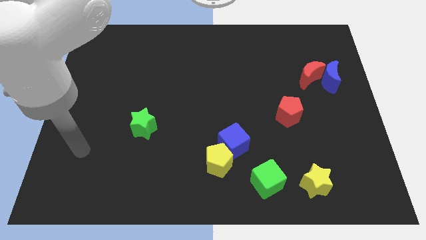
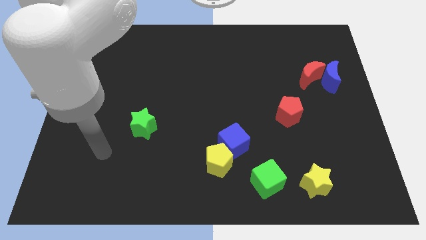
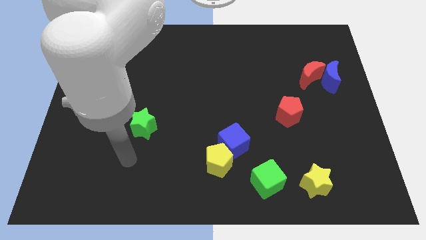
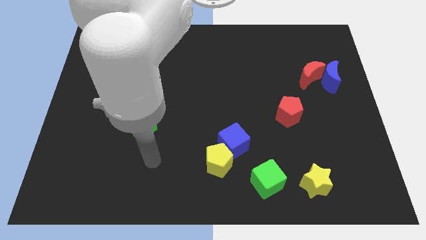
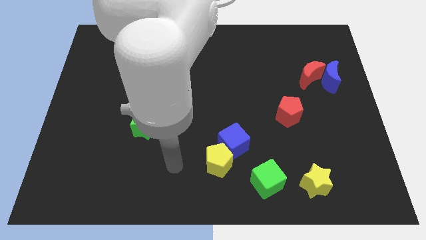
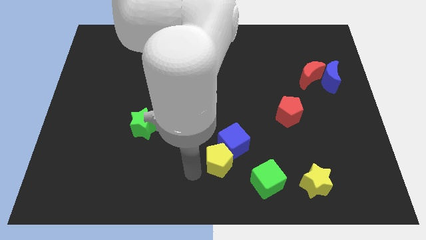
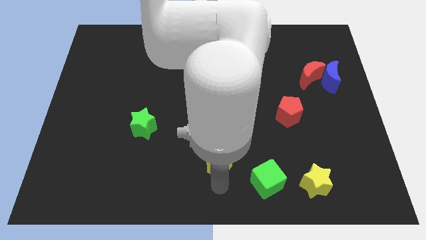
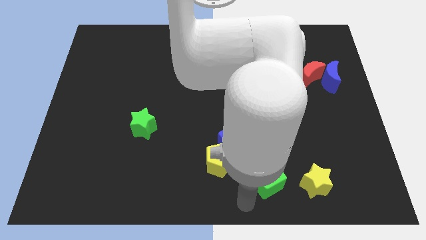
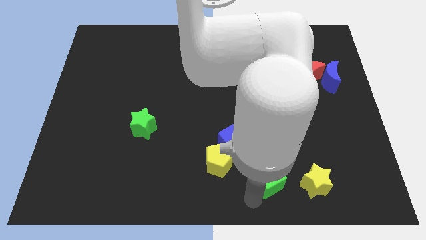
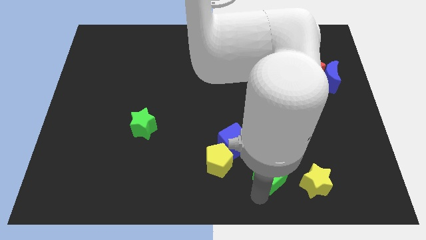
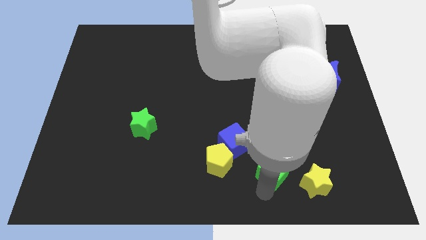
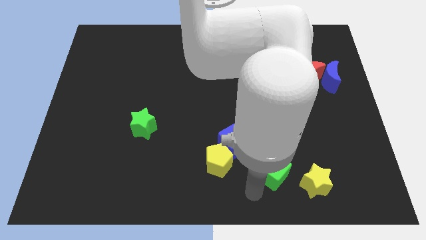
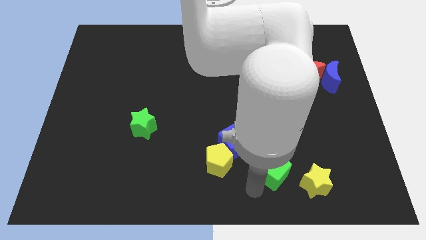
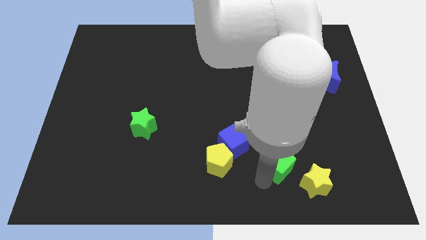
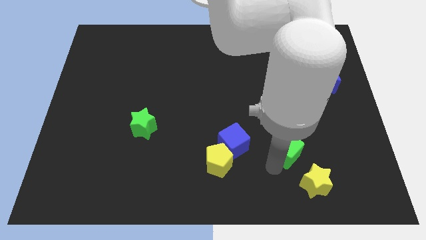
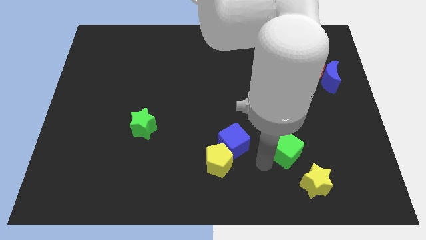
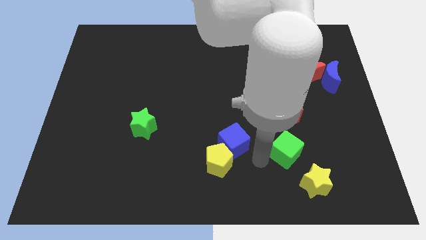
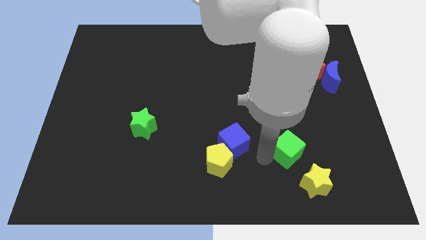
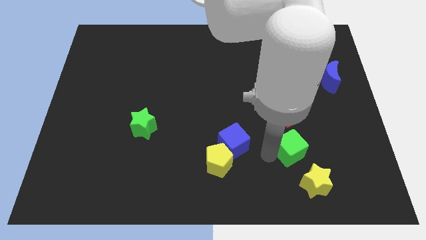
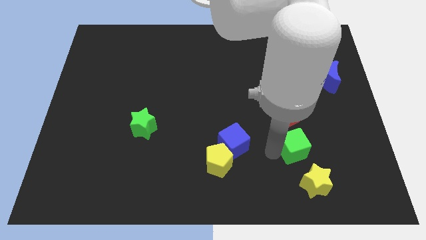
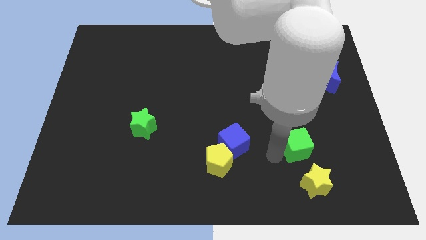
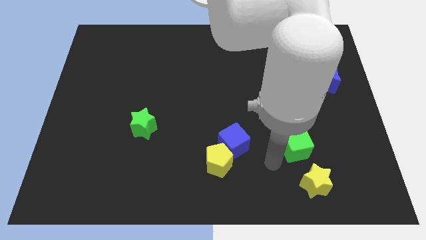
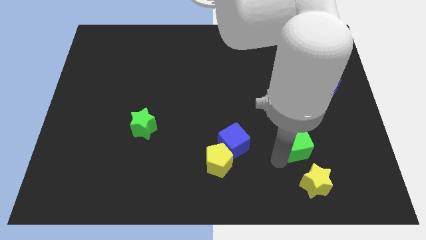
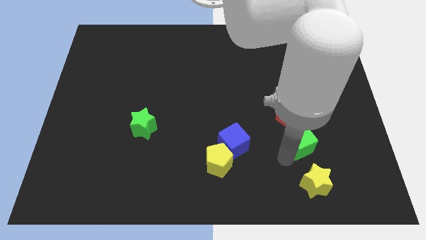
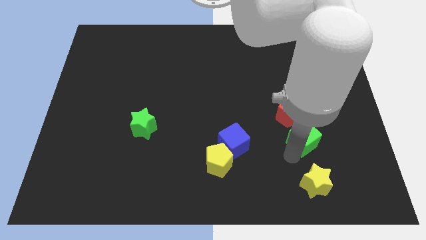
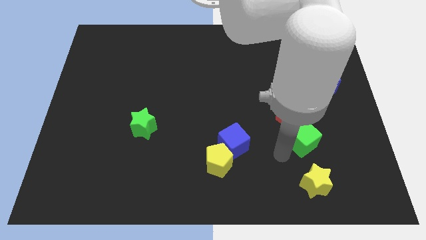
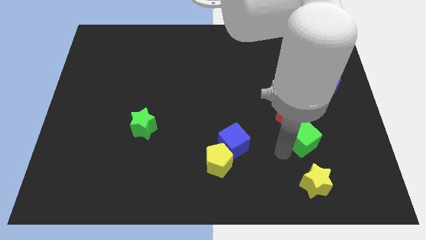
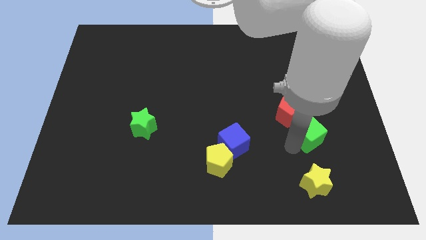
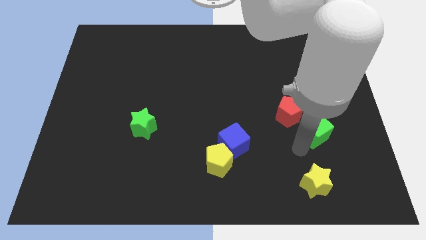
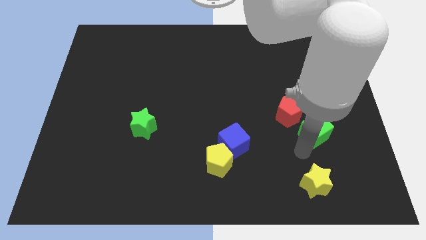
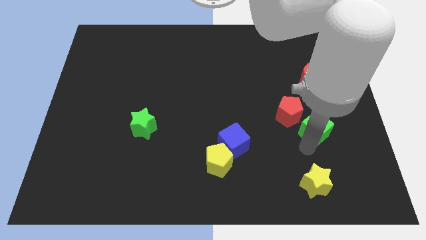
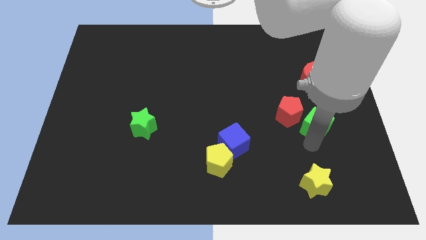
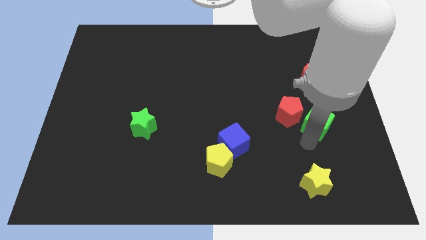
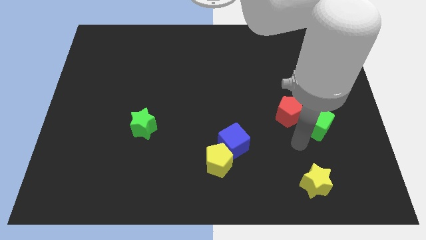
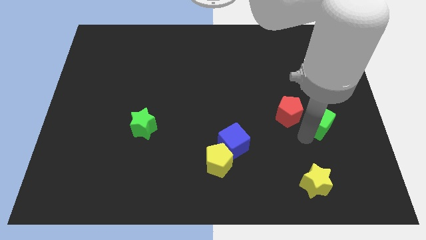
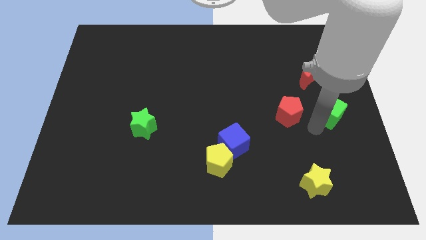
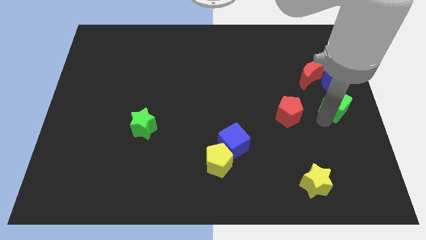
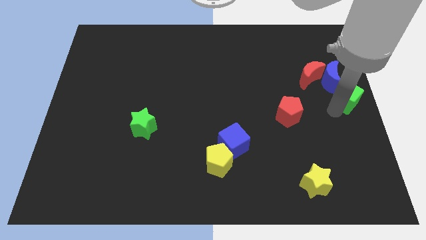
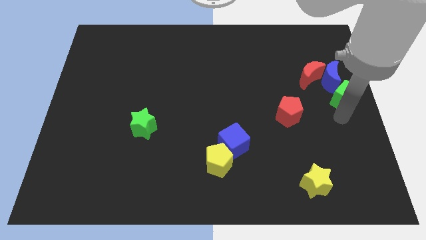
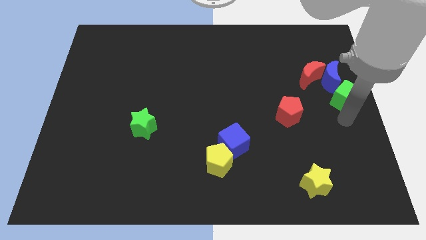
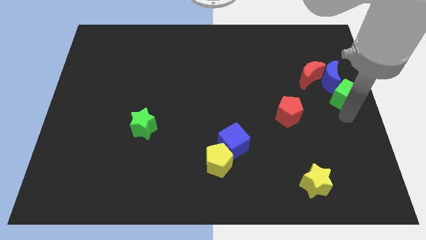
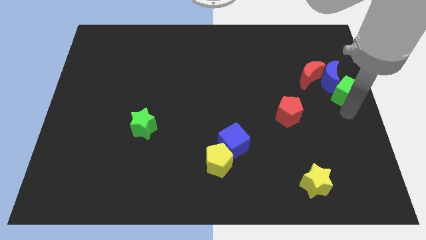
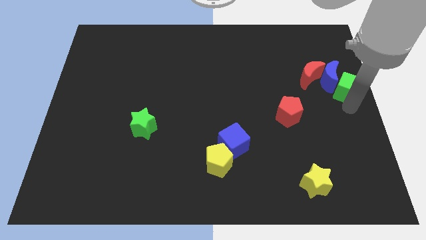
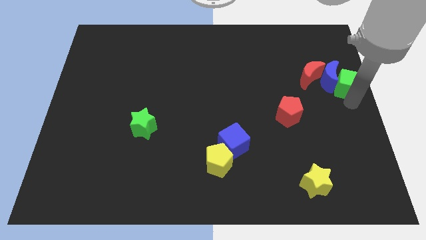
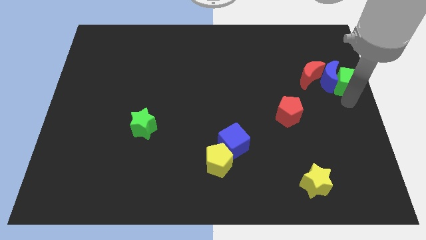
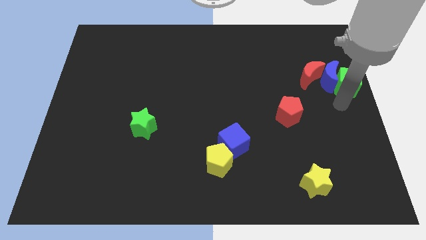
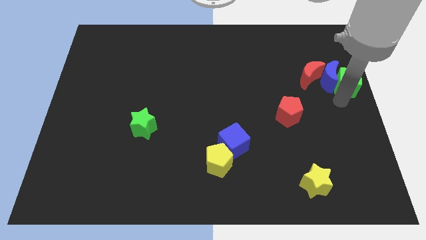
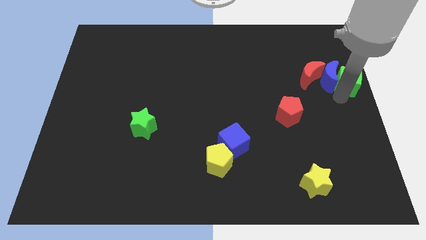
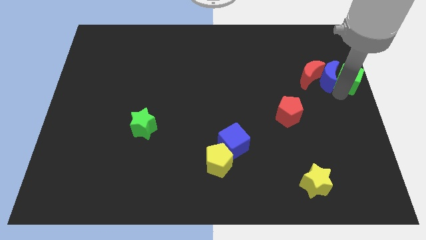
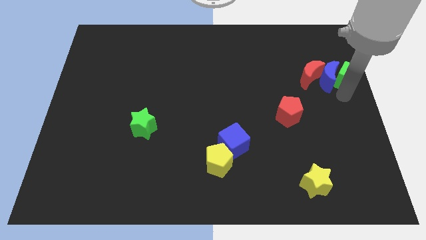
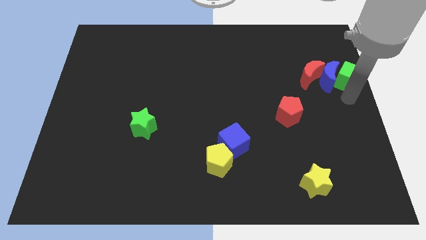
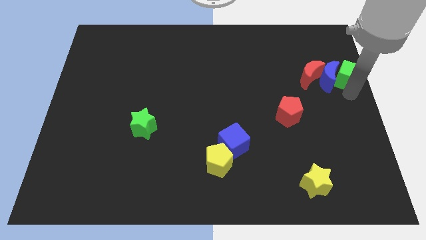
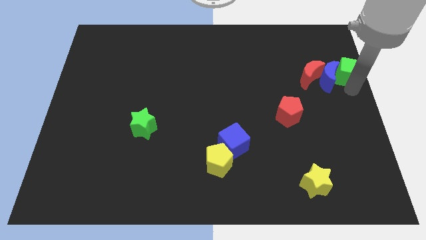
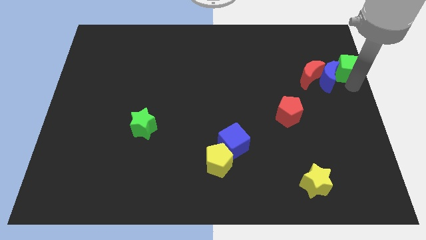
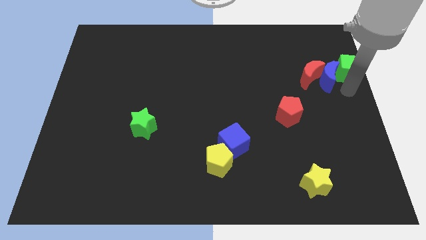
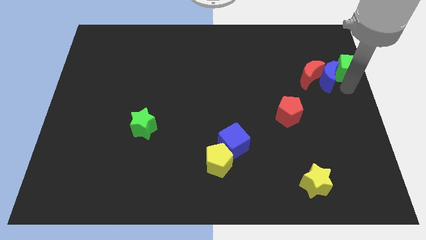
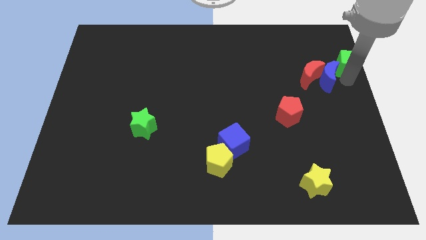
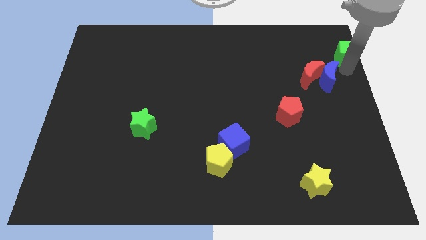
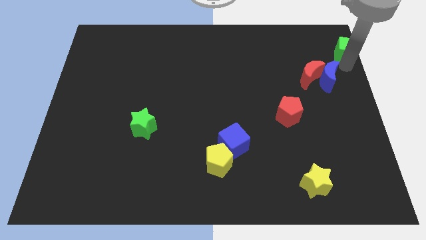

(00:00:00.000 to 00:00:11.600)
move the green cube to the upper right corner

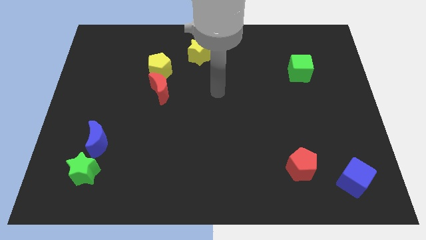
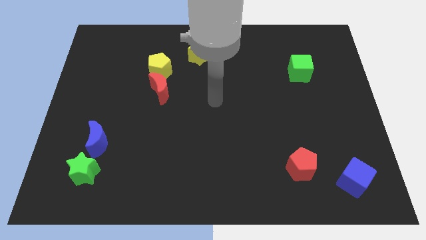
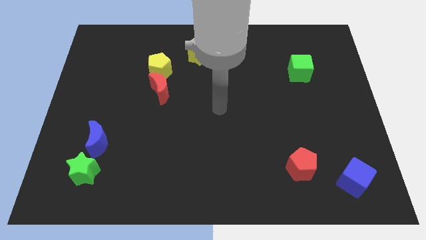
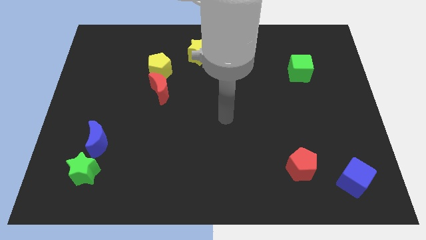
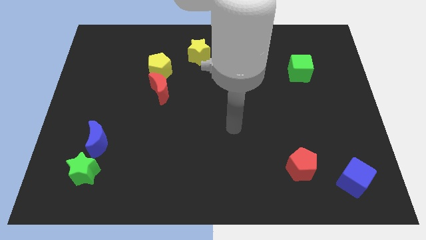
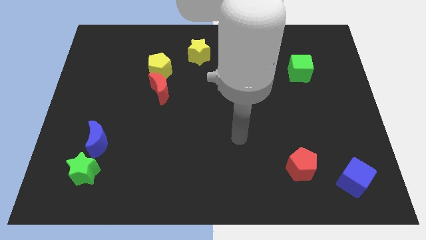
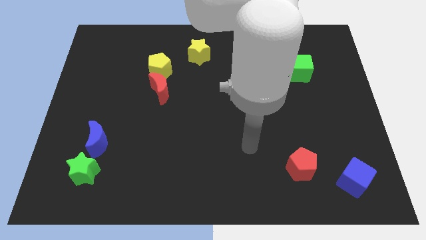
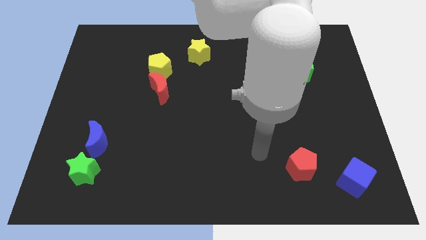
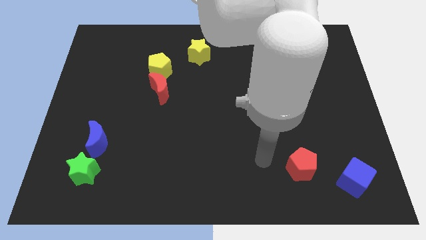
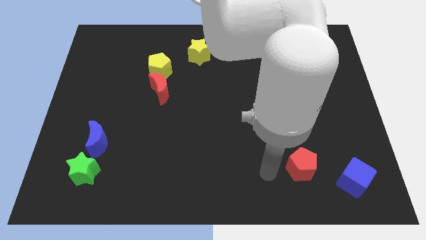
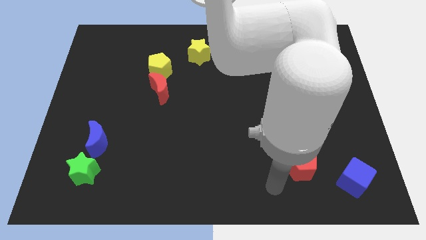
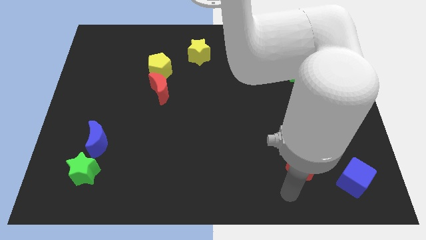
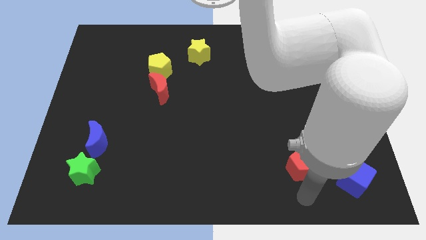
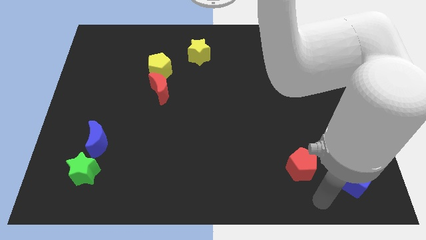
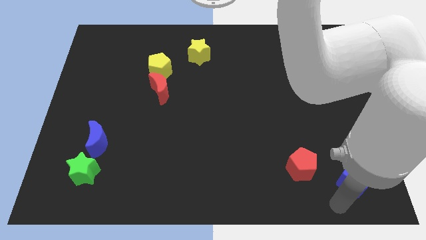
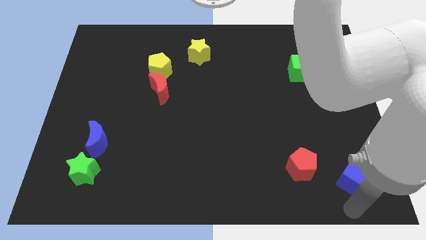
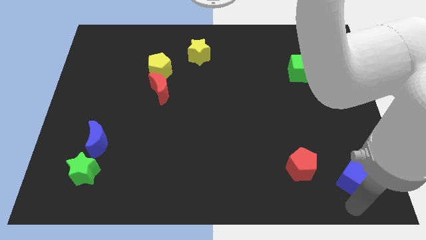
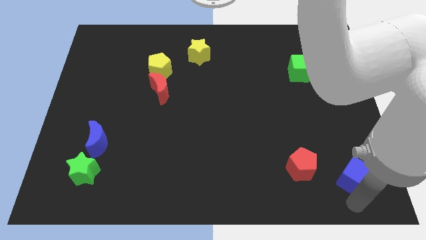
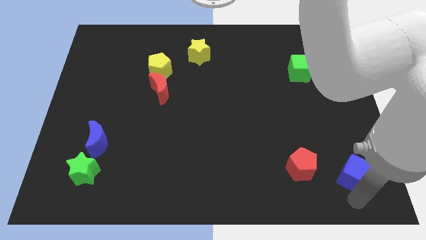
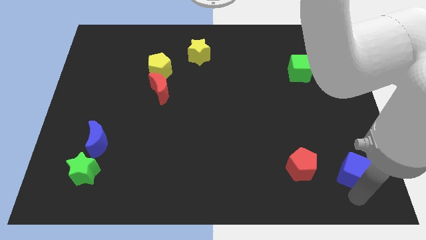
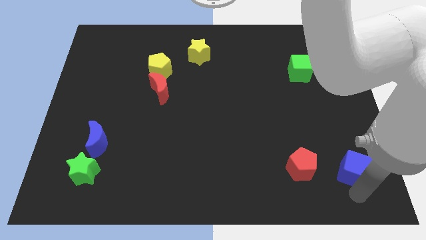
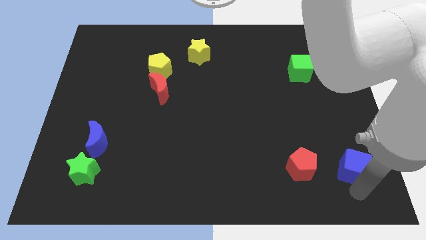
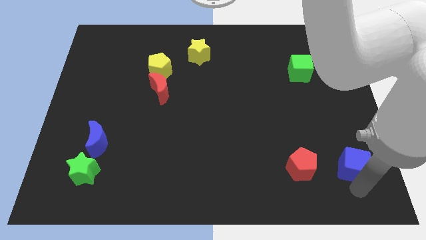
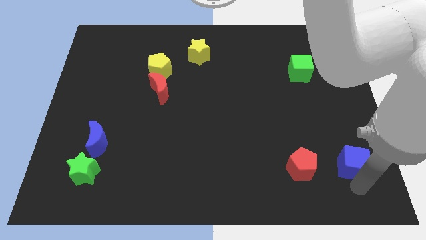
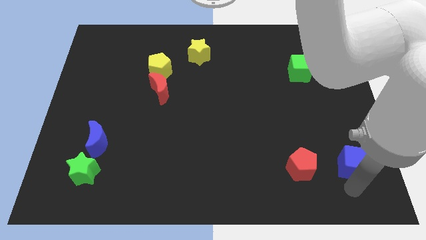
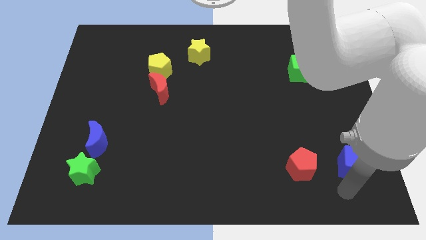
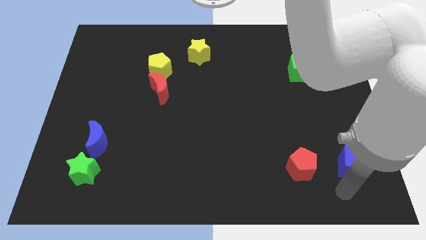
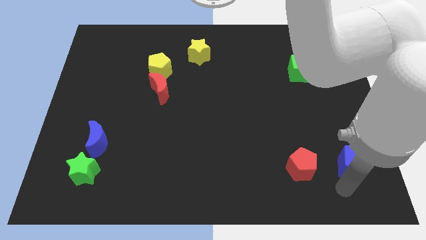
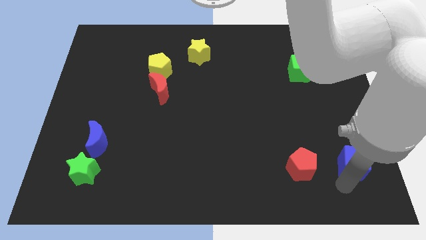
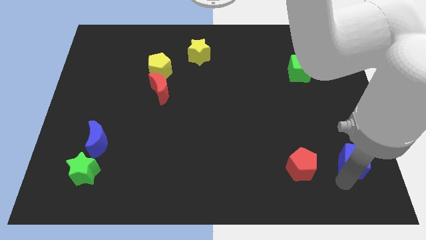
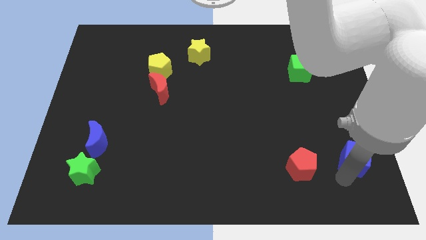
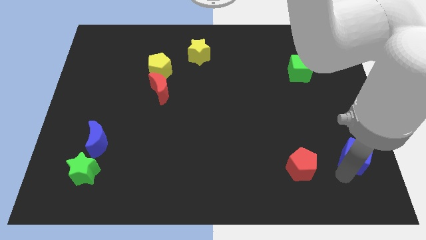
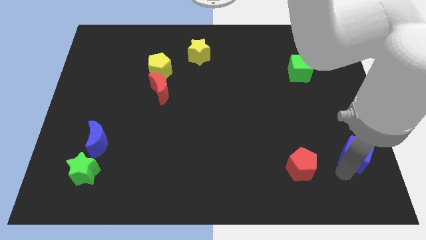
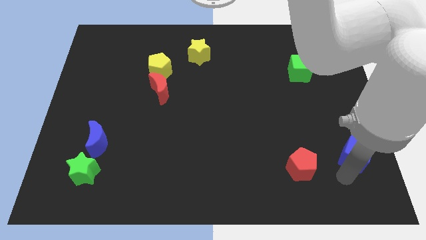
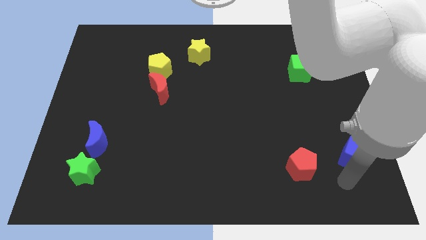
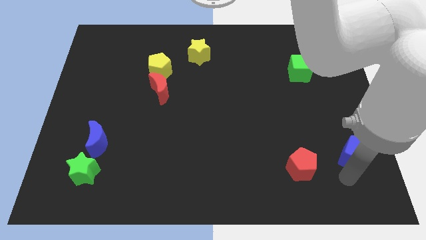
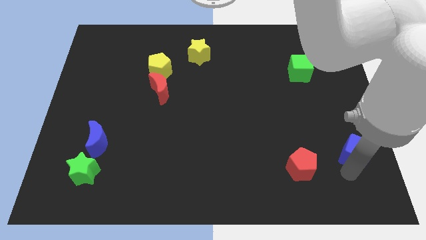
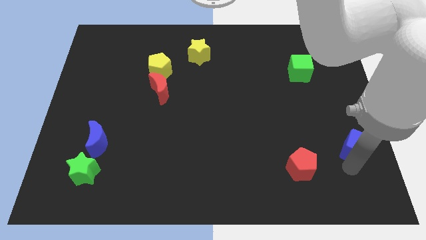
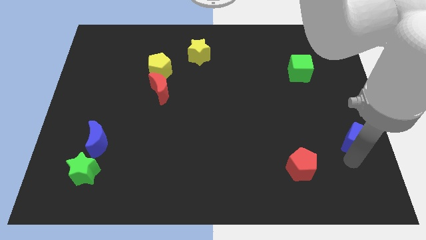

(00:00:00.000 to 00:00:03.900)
move the blue cube to the right side of the board
